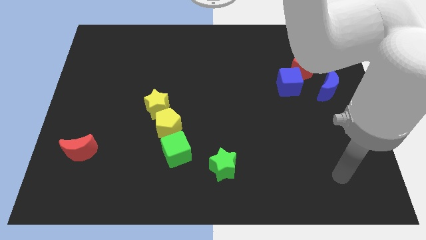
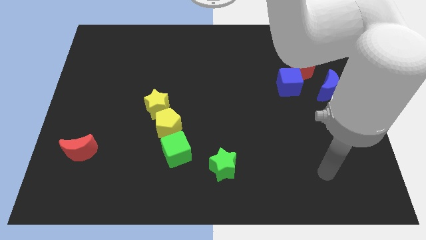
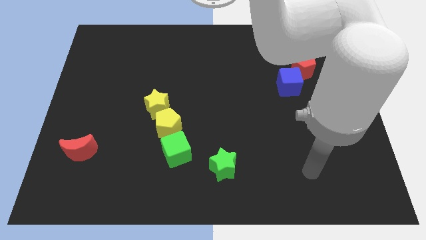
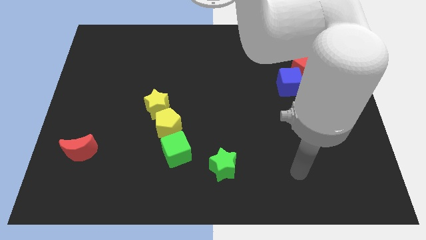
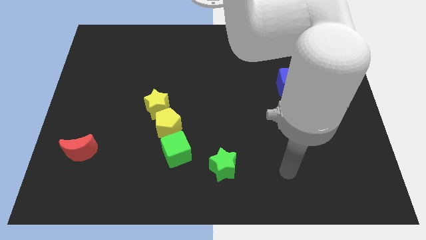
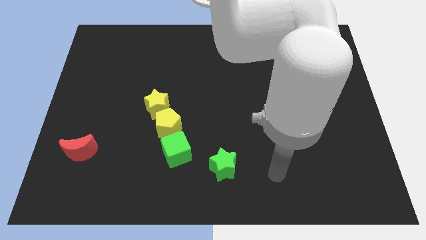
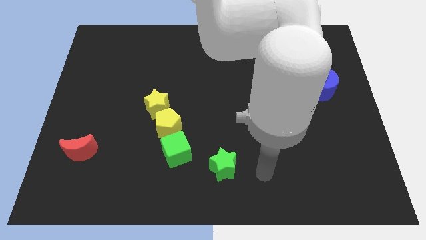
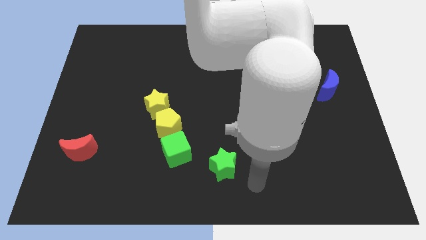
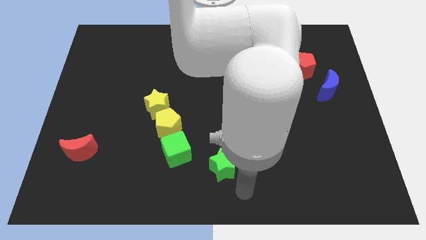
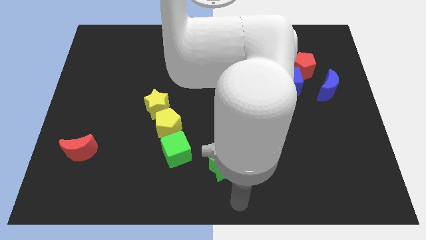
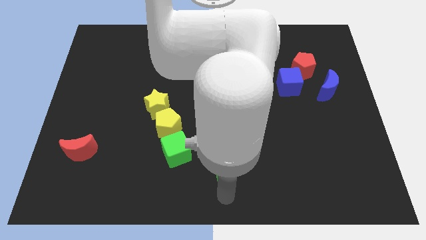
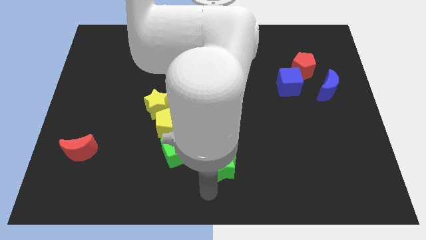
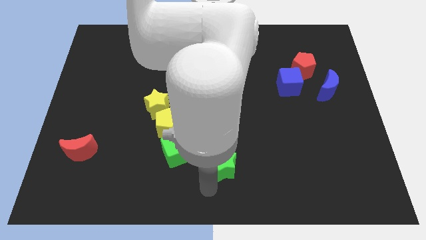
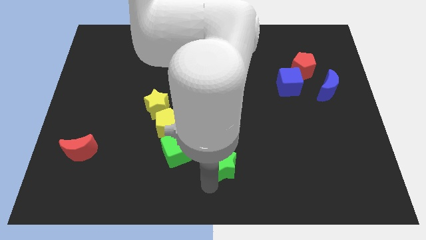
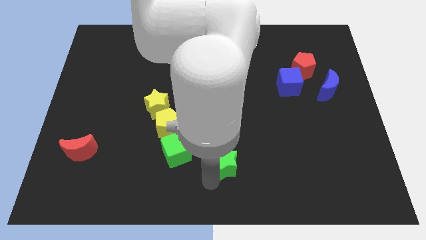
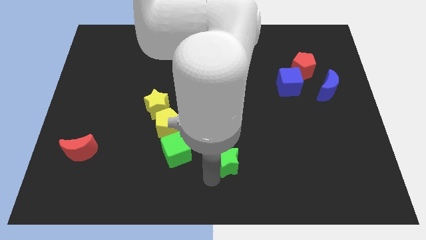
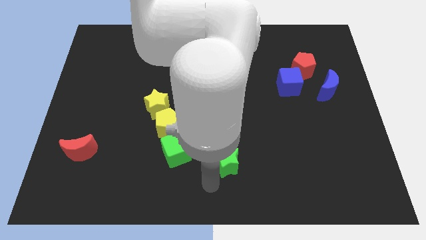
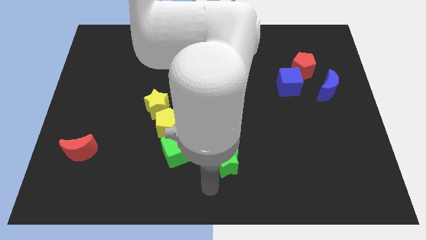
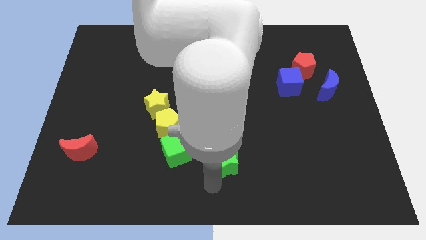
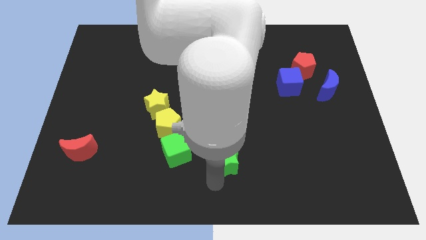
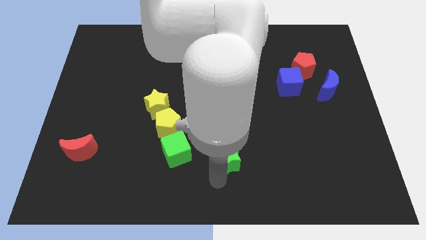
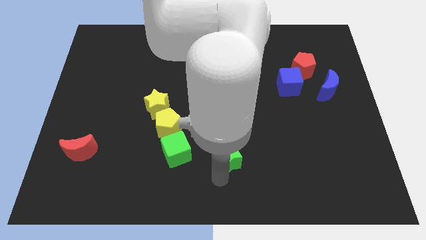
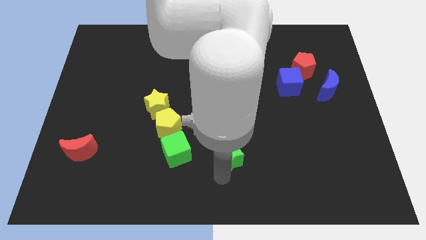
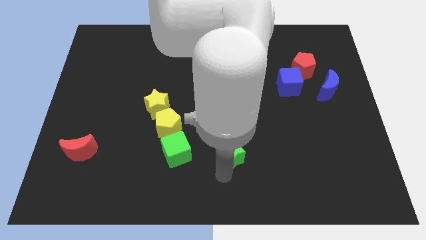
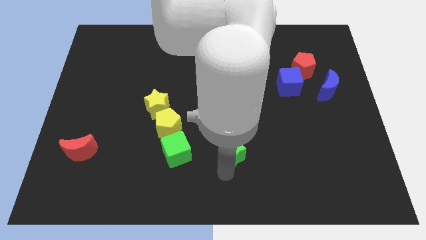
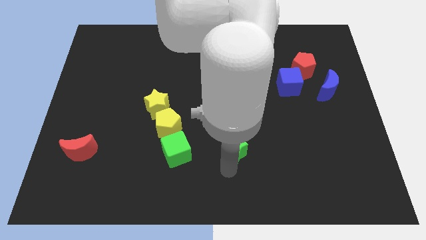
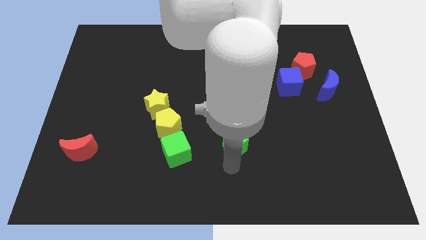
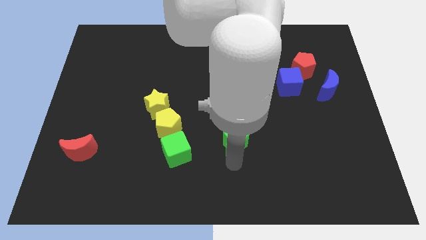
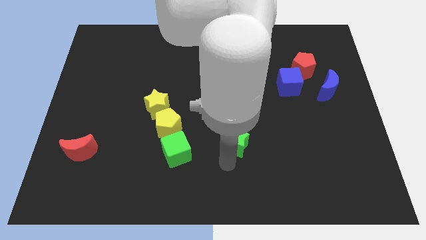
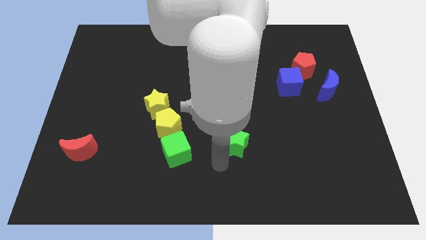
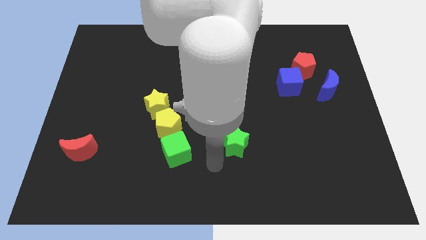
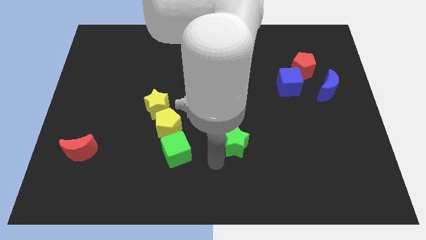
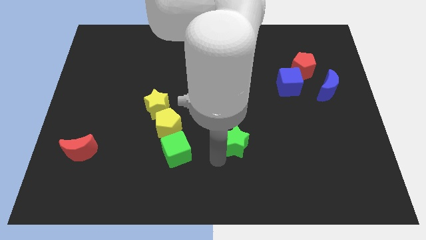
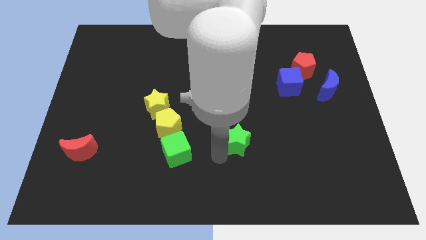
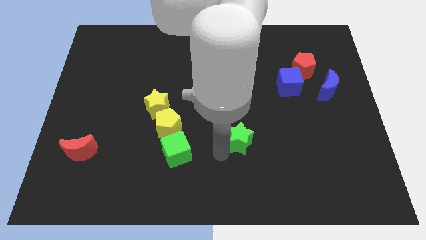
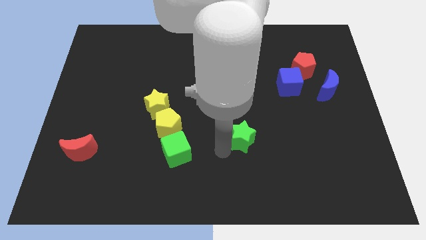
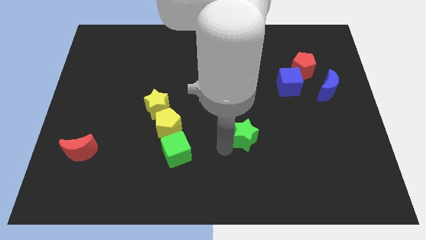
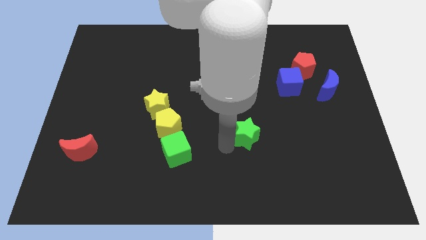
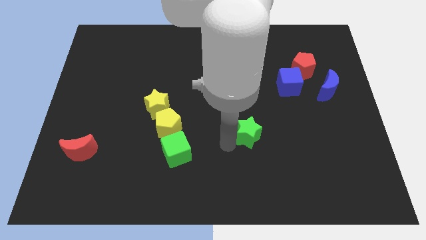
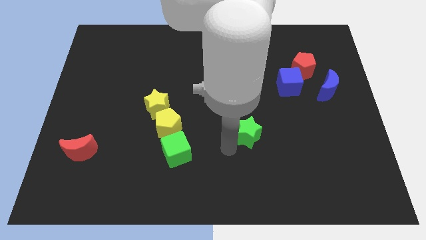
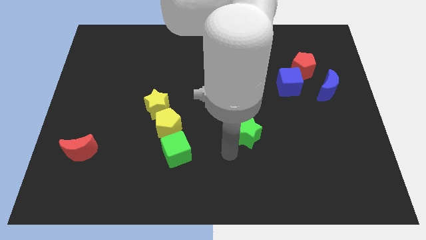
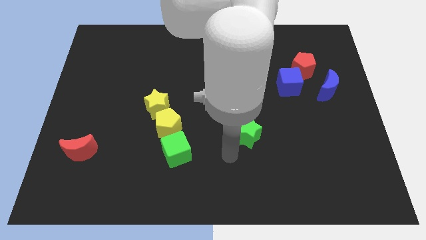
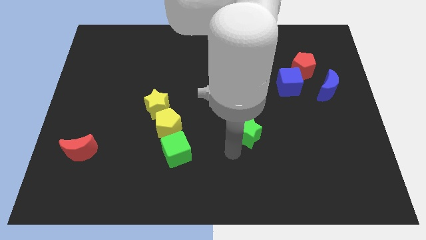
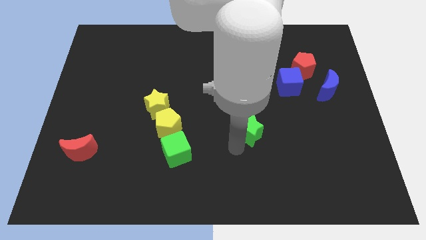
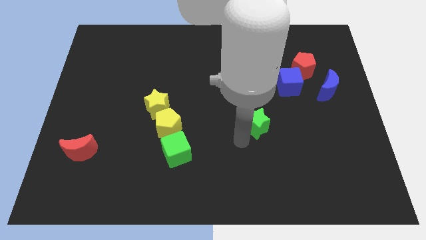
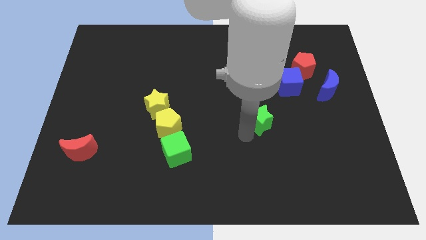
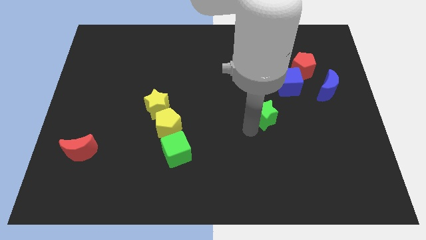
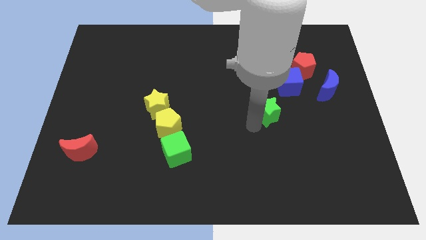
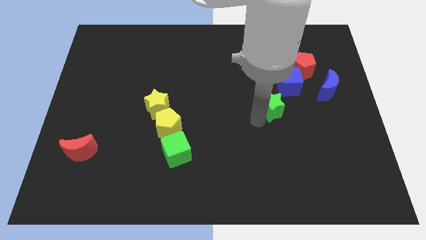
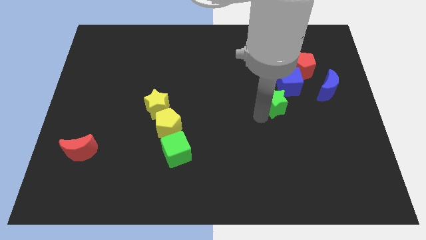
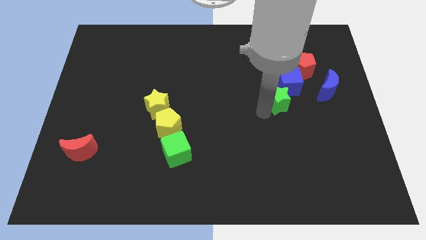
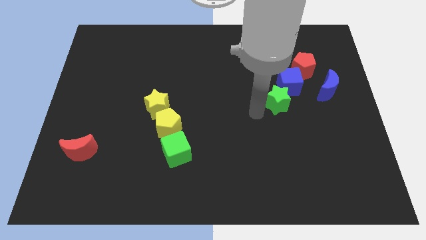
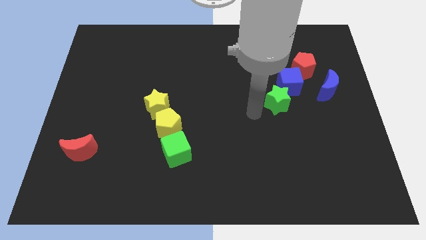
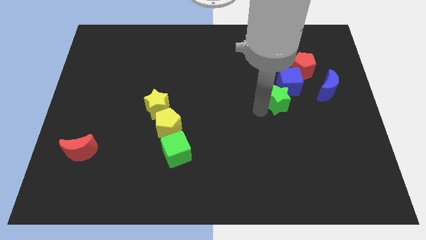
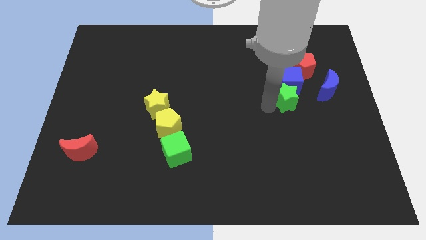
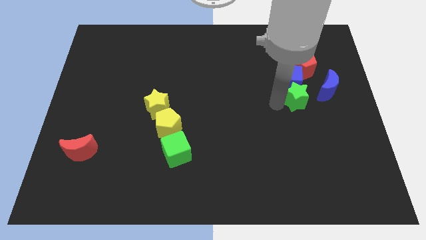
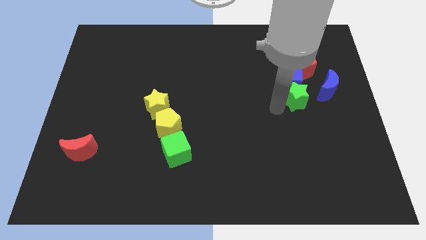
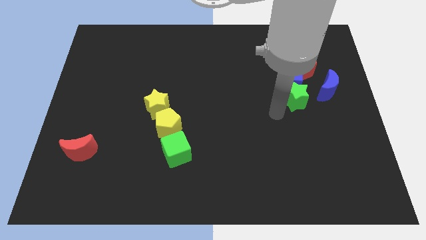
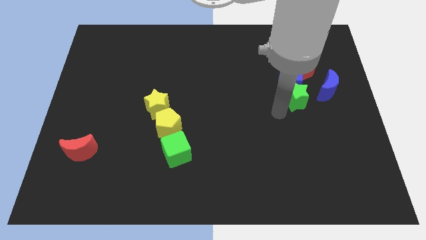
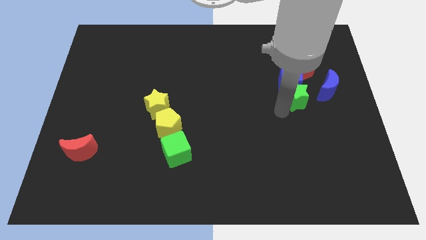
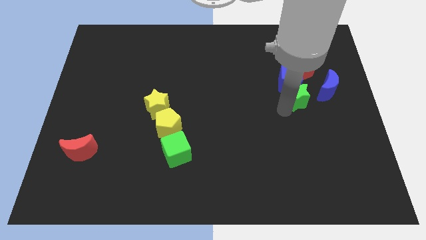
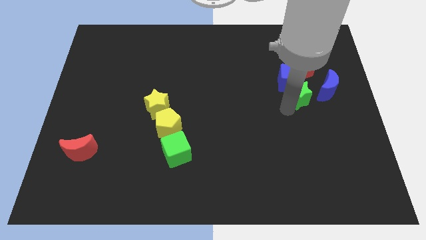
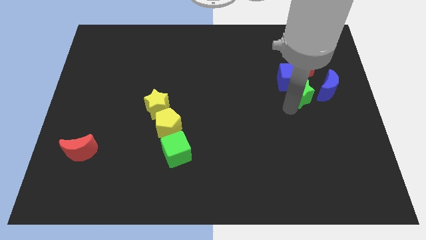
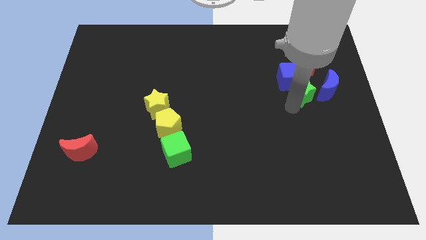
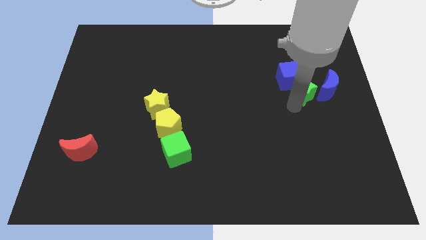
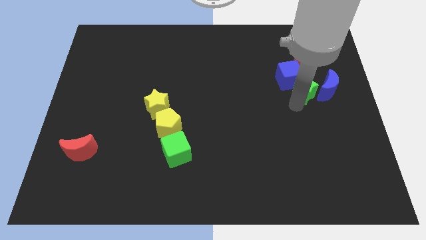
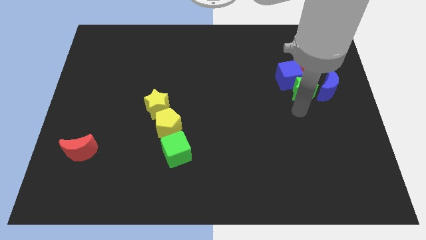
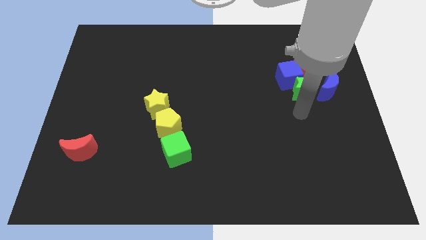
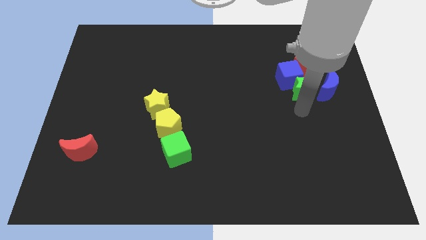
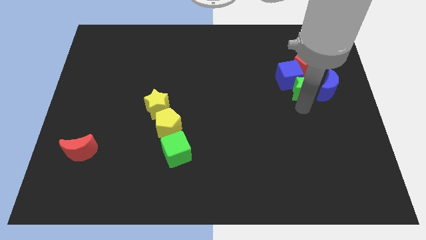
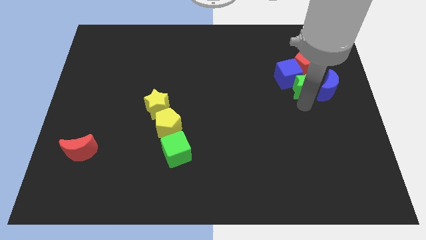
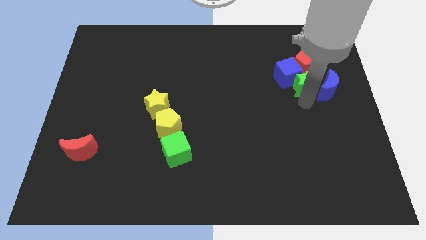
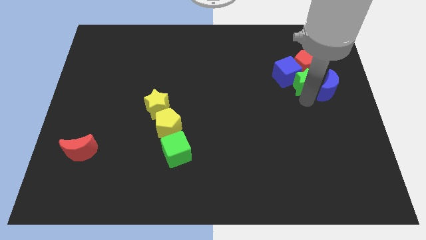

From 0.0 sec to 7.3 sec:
push the green star close to the red pentagon
